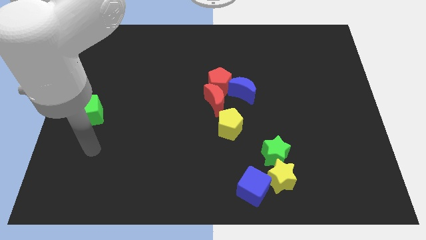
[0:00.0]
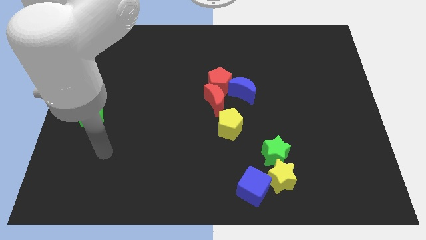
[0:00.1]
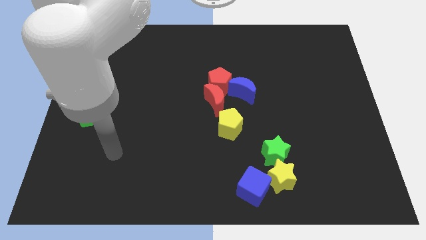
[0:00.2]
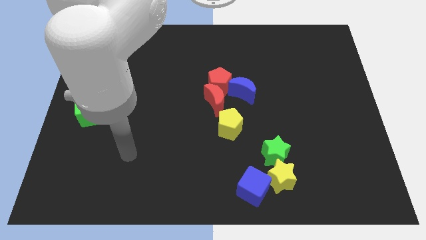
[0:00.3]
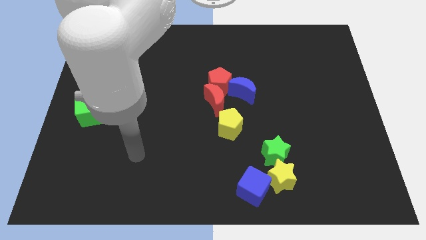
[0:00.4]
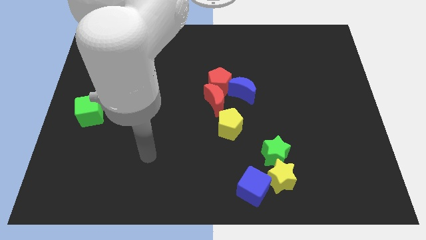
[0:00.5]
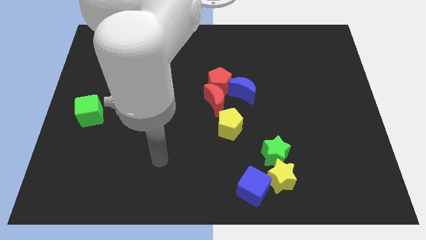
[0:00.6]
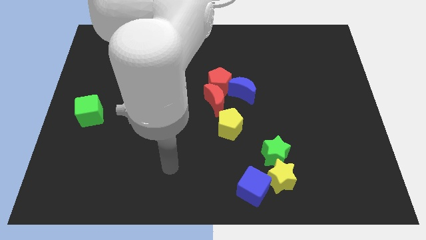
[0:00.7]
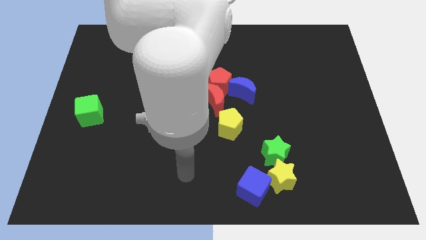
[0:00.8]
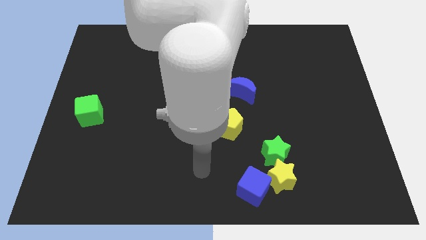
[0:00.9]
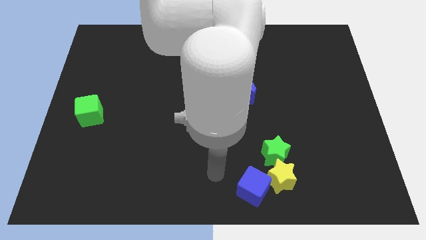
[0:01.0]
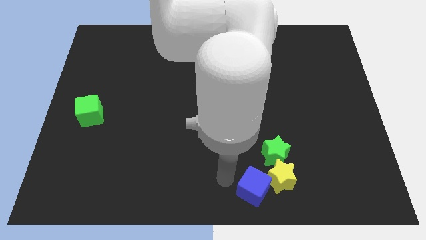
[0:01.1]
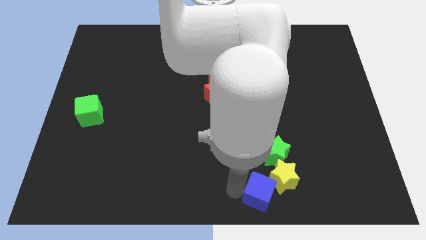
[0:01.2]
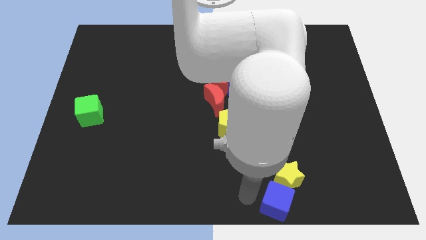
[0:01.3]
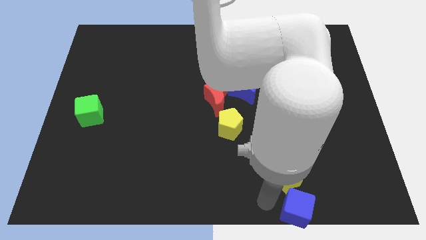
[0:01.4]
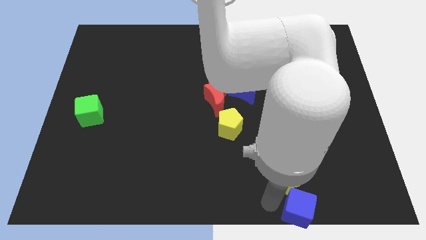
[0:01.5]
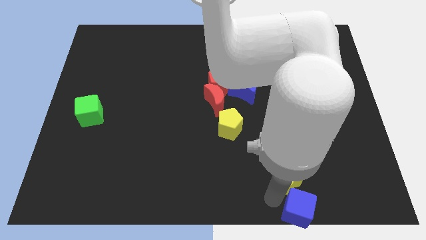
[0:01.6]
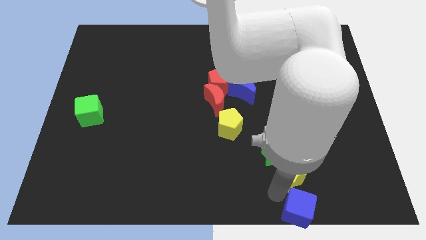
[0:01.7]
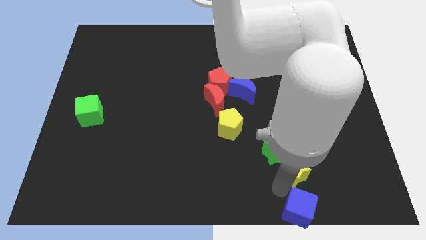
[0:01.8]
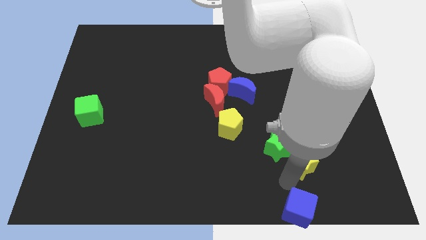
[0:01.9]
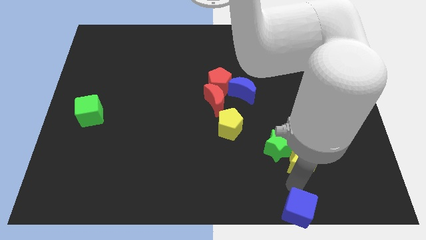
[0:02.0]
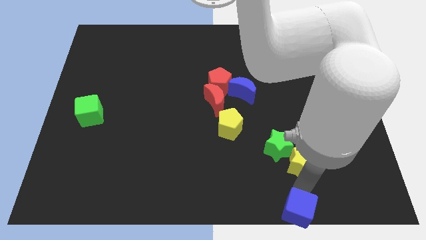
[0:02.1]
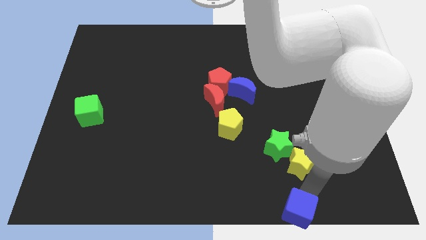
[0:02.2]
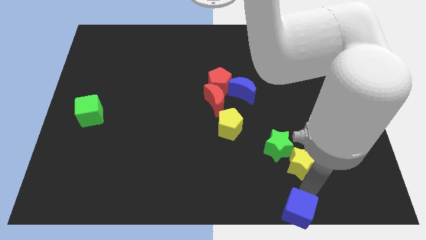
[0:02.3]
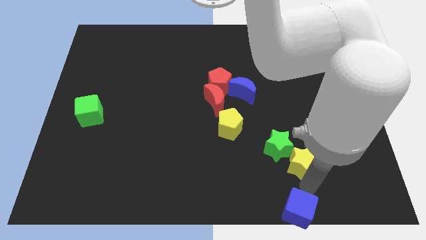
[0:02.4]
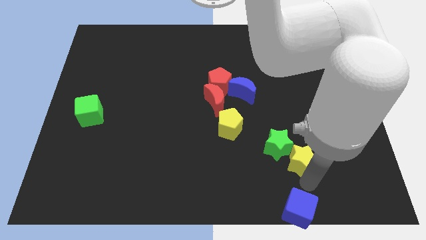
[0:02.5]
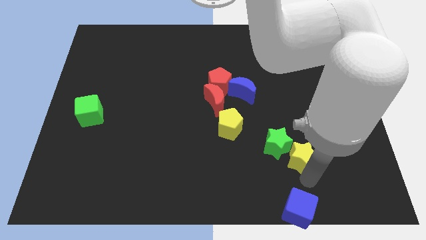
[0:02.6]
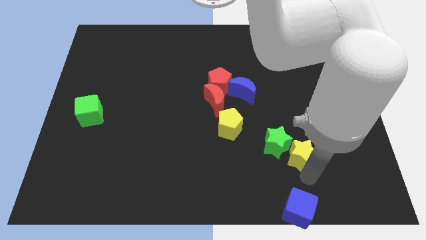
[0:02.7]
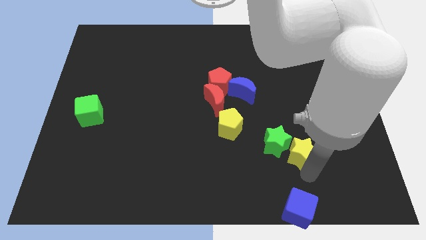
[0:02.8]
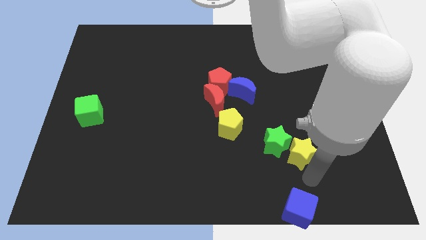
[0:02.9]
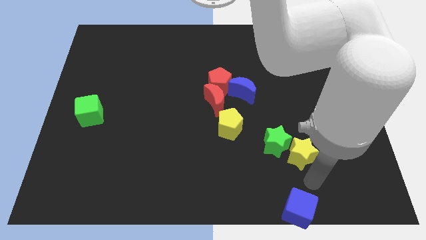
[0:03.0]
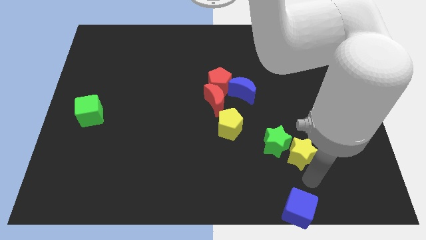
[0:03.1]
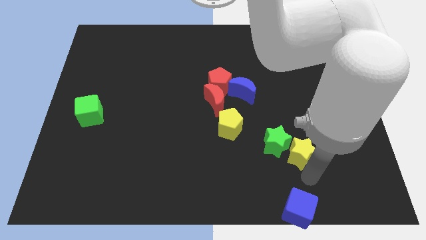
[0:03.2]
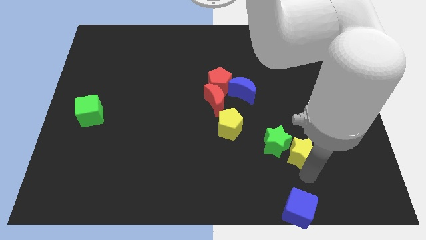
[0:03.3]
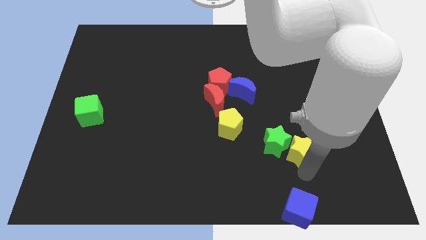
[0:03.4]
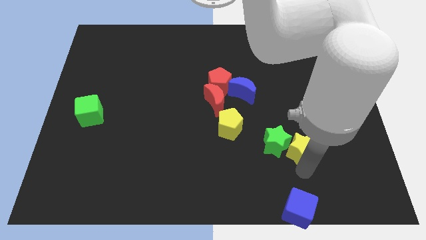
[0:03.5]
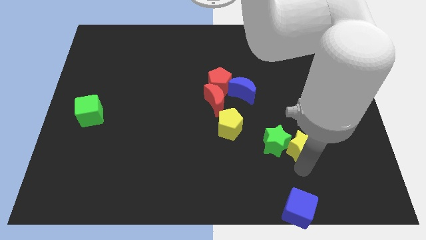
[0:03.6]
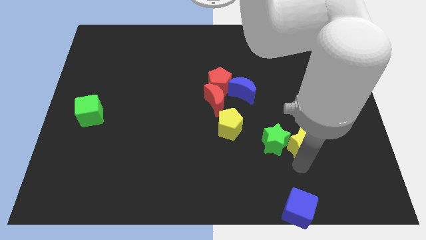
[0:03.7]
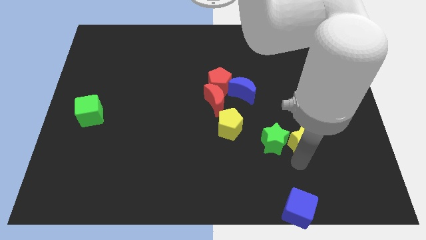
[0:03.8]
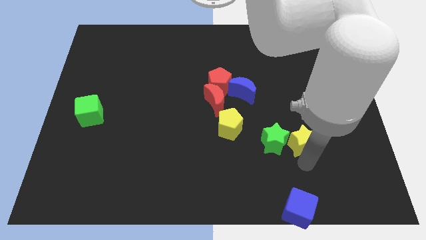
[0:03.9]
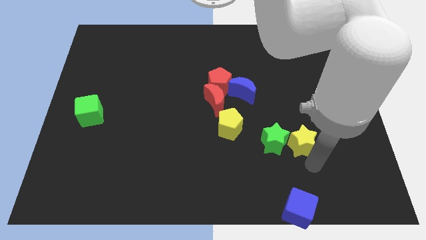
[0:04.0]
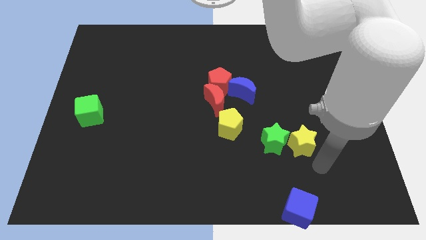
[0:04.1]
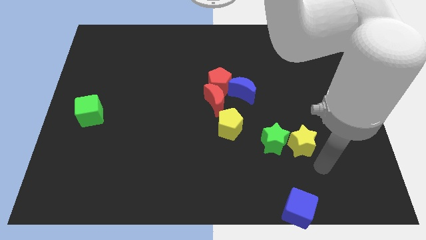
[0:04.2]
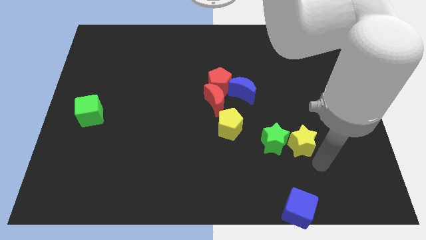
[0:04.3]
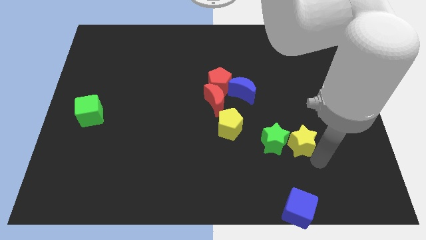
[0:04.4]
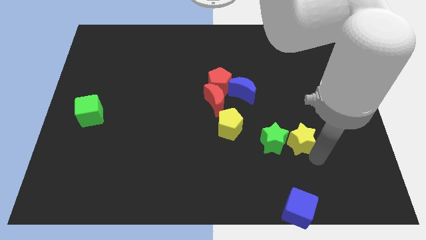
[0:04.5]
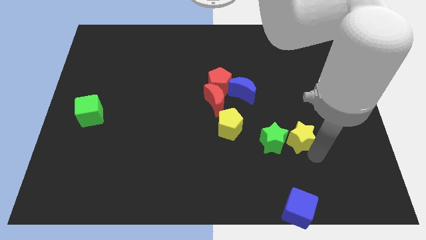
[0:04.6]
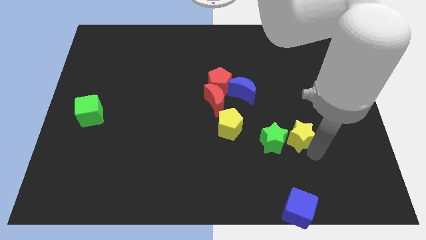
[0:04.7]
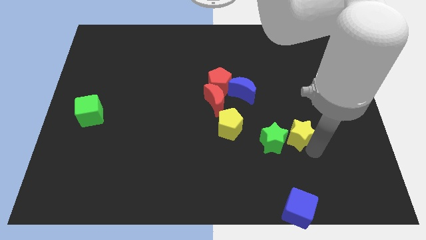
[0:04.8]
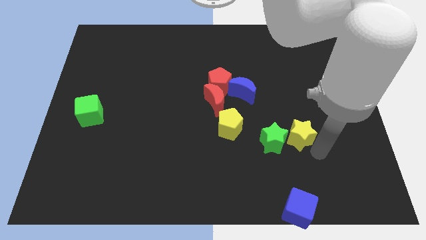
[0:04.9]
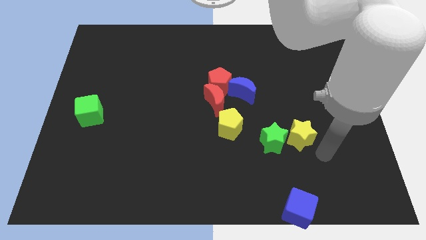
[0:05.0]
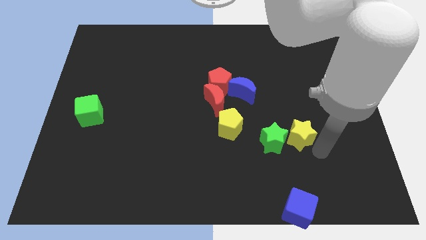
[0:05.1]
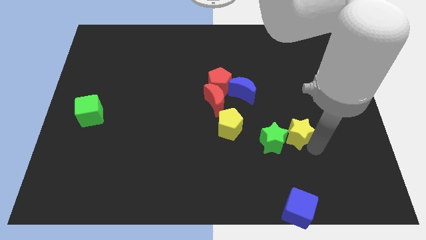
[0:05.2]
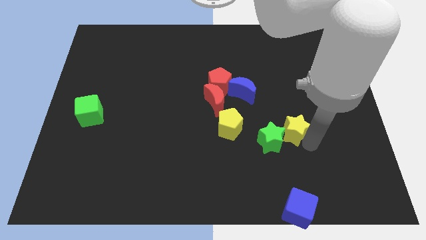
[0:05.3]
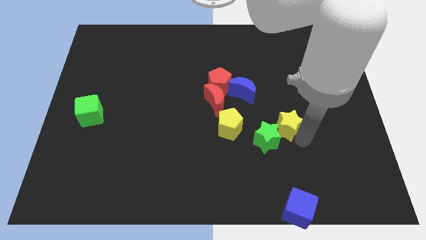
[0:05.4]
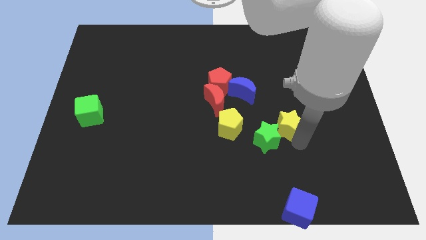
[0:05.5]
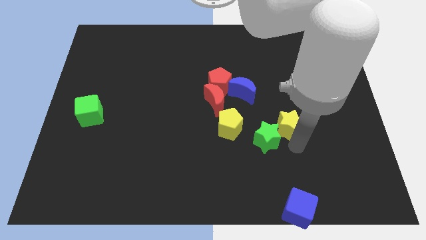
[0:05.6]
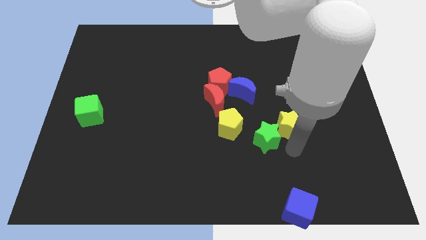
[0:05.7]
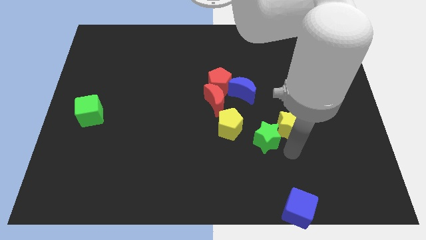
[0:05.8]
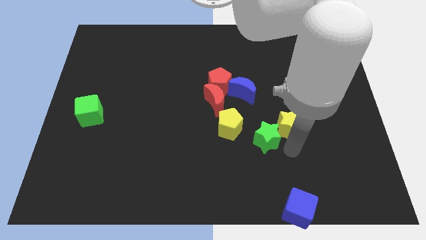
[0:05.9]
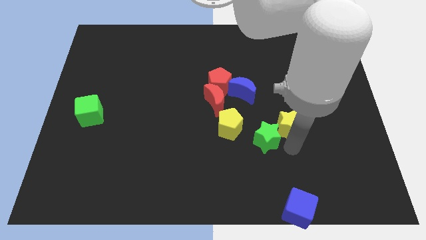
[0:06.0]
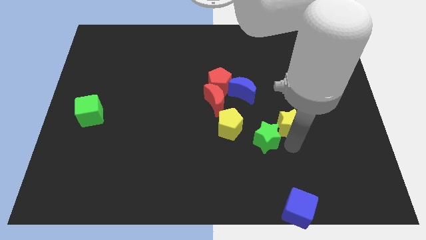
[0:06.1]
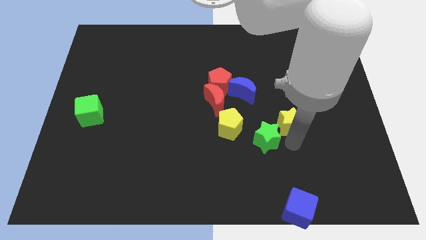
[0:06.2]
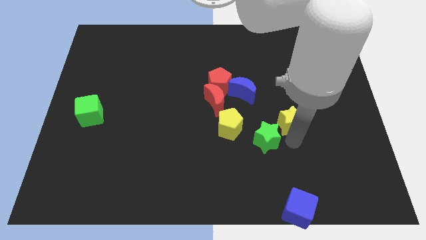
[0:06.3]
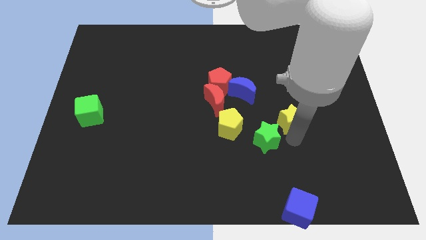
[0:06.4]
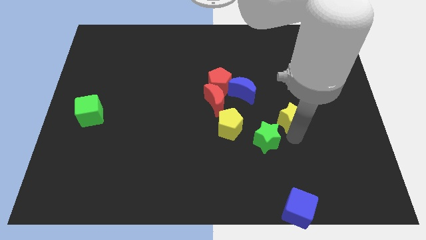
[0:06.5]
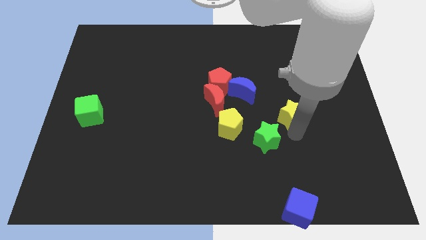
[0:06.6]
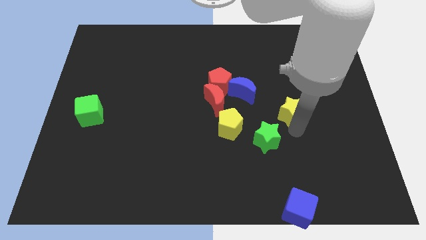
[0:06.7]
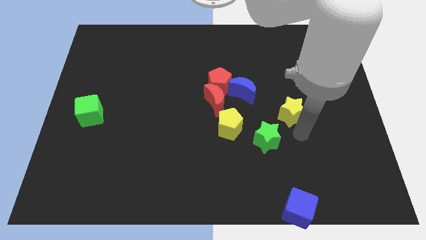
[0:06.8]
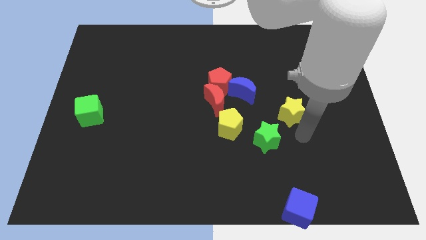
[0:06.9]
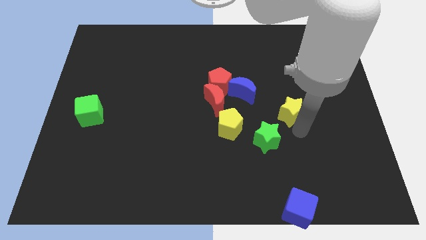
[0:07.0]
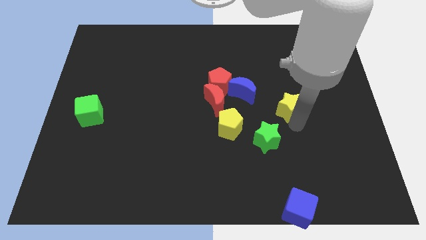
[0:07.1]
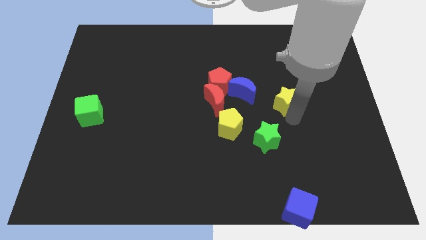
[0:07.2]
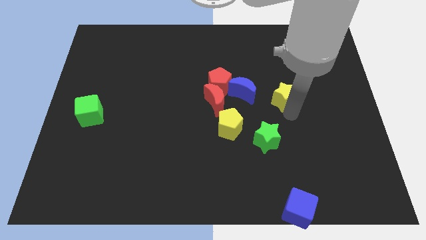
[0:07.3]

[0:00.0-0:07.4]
move the yellow star up

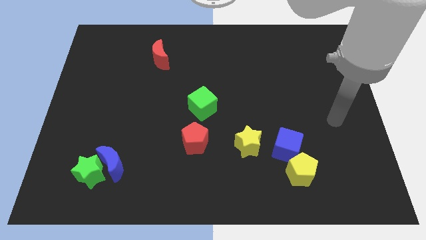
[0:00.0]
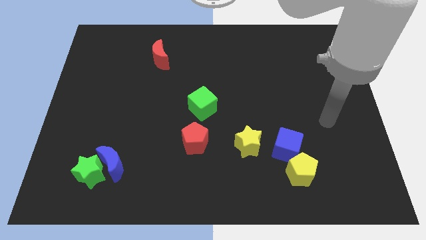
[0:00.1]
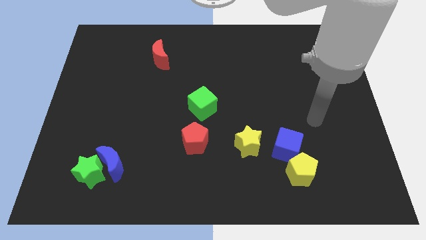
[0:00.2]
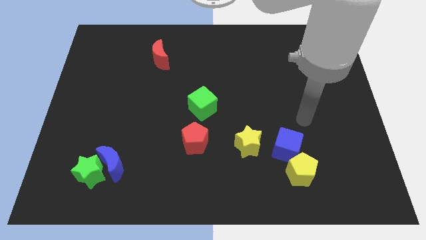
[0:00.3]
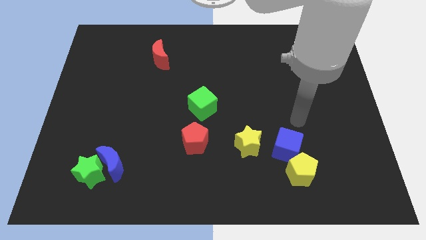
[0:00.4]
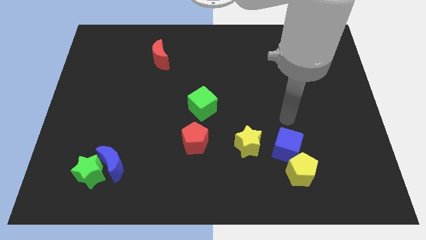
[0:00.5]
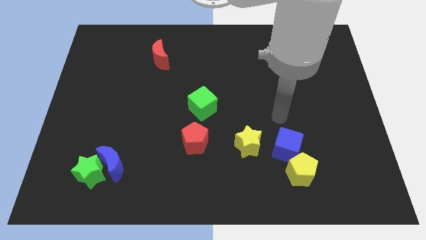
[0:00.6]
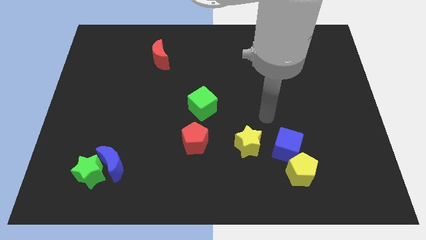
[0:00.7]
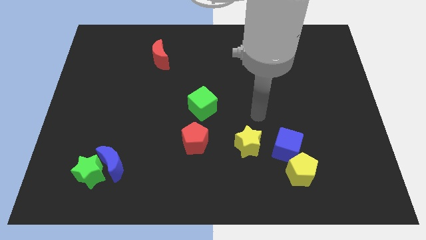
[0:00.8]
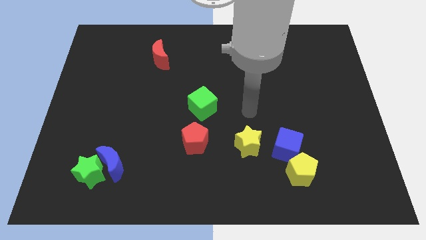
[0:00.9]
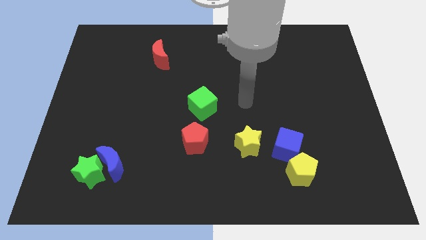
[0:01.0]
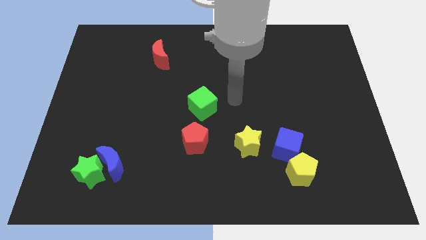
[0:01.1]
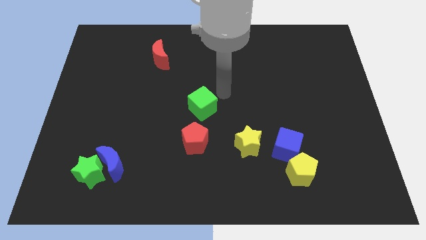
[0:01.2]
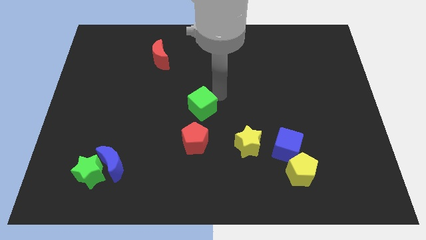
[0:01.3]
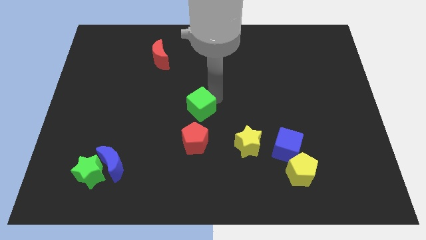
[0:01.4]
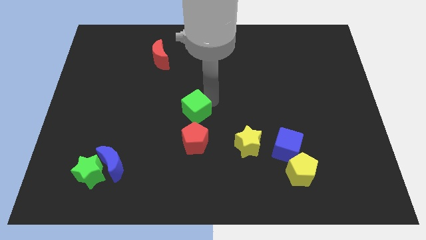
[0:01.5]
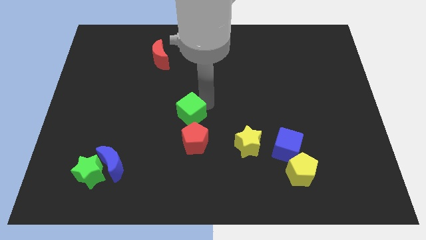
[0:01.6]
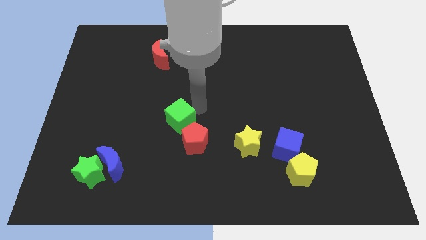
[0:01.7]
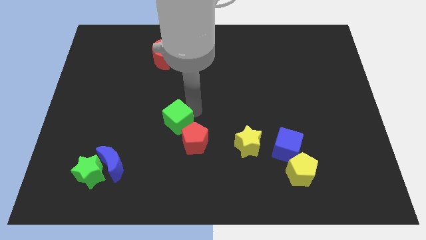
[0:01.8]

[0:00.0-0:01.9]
slightly push the green cube diagonally down and to the left
